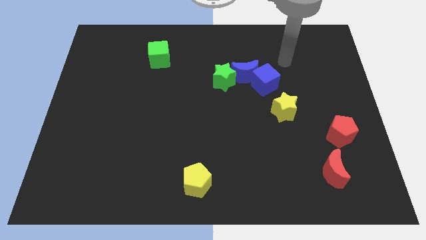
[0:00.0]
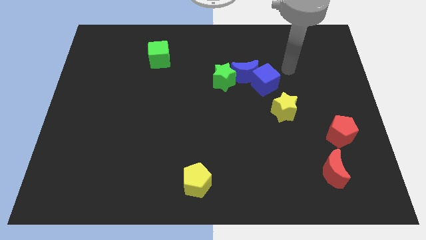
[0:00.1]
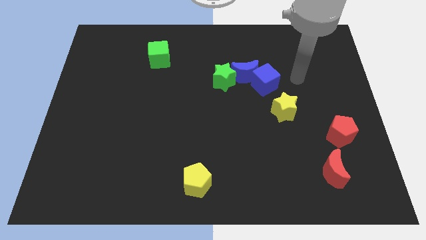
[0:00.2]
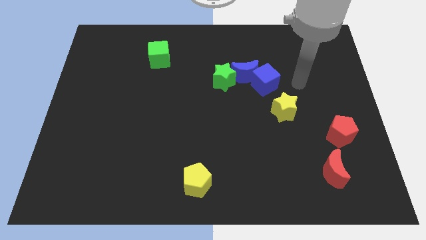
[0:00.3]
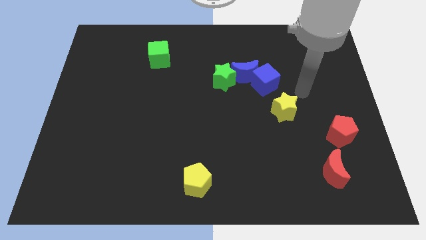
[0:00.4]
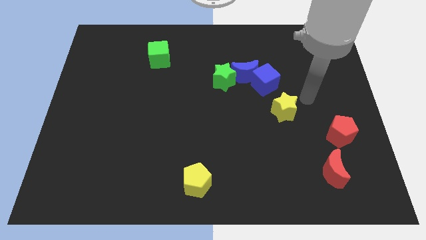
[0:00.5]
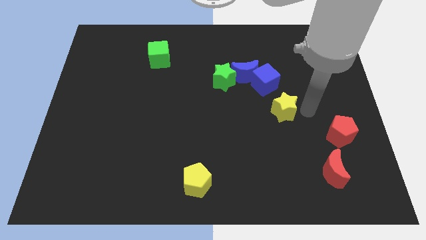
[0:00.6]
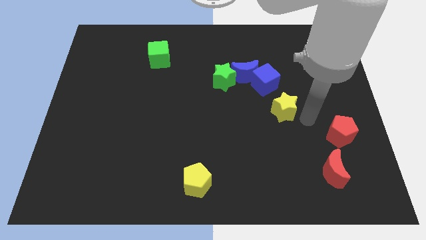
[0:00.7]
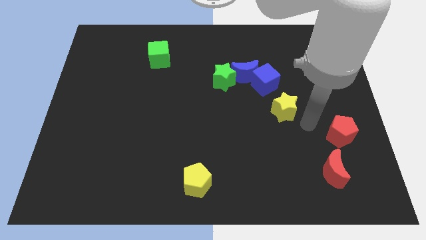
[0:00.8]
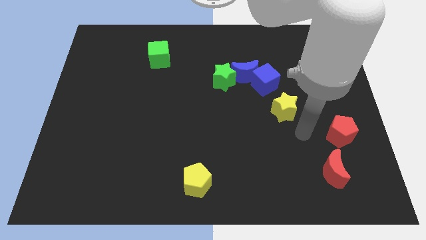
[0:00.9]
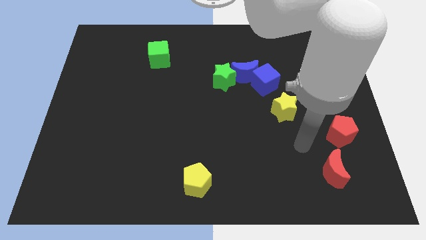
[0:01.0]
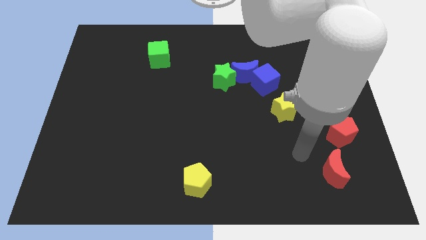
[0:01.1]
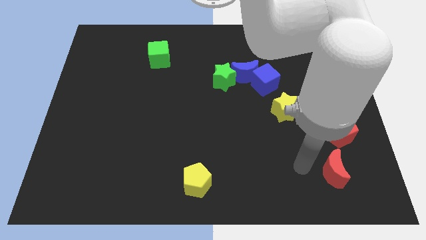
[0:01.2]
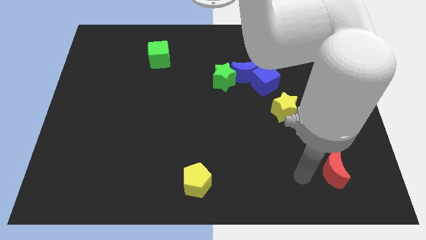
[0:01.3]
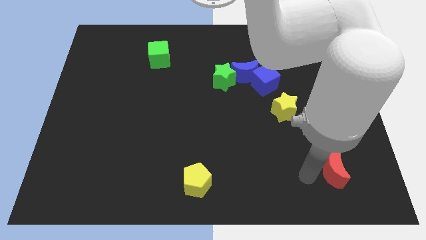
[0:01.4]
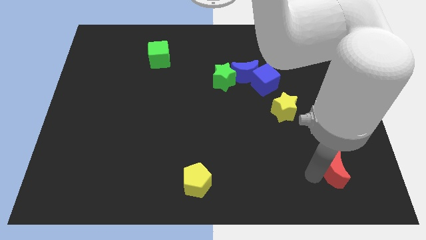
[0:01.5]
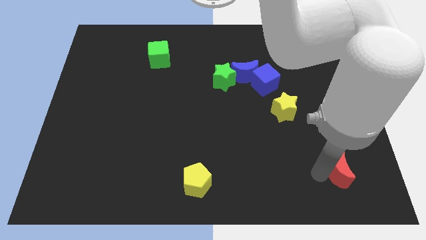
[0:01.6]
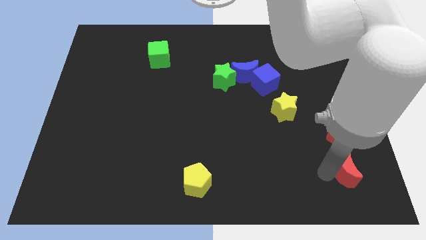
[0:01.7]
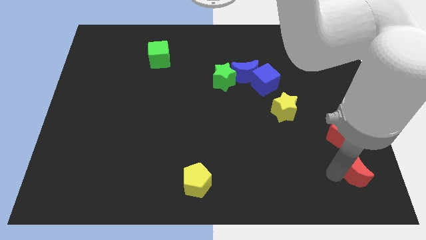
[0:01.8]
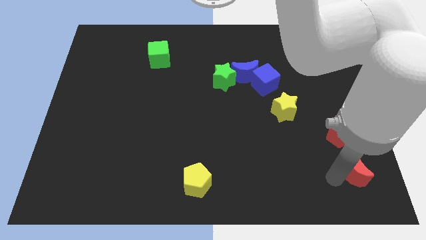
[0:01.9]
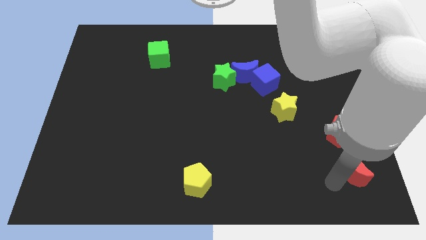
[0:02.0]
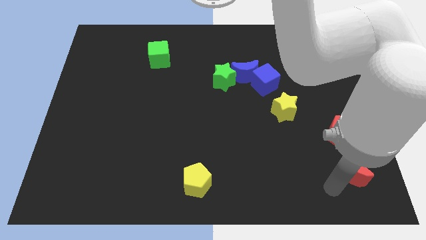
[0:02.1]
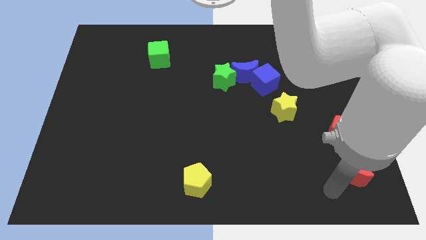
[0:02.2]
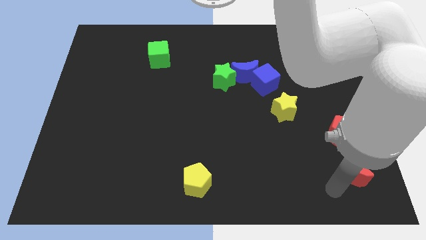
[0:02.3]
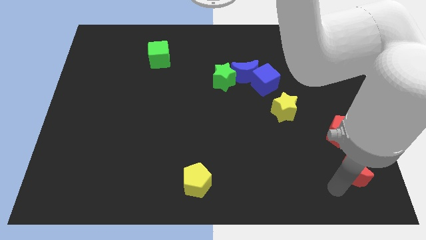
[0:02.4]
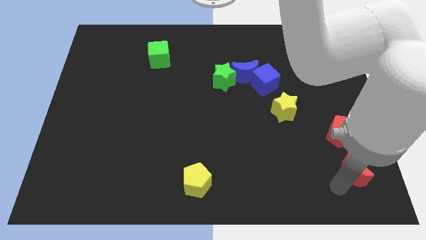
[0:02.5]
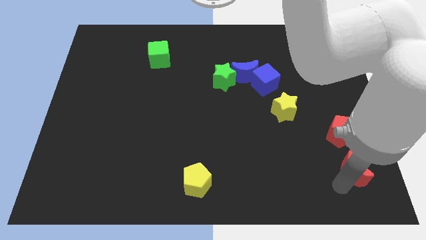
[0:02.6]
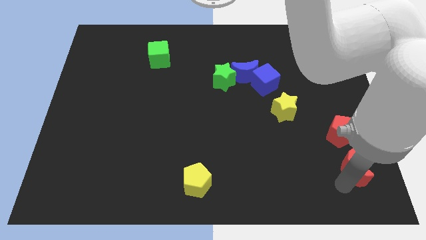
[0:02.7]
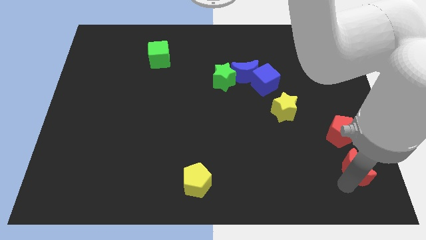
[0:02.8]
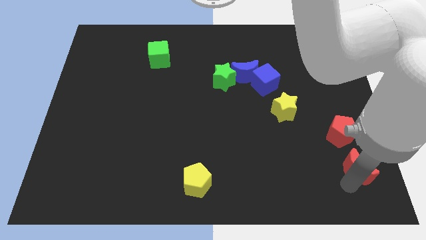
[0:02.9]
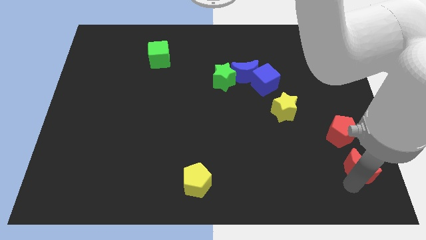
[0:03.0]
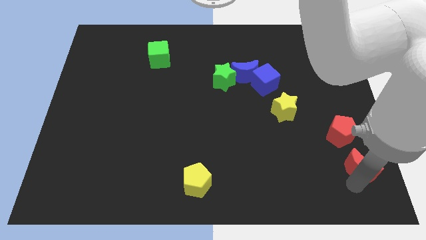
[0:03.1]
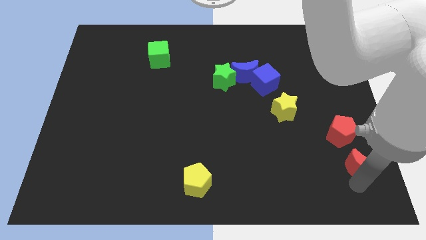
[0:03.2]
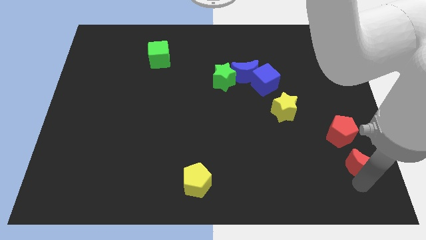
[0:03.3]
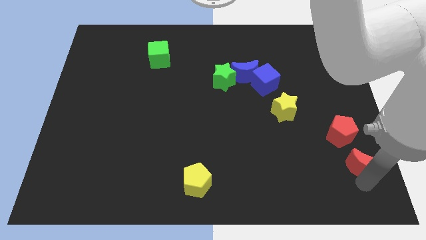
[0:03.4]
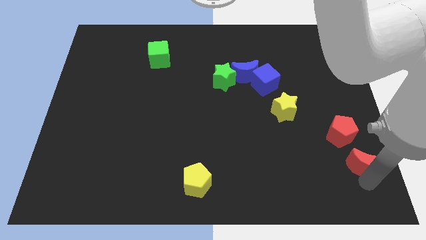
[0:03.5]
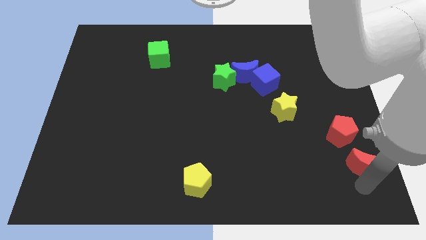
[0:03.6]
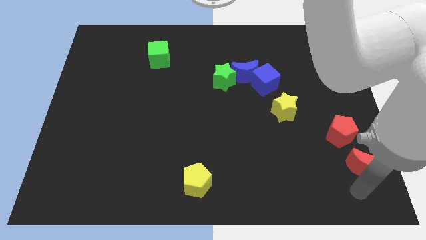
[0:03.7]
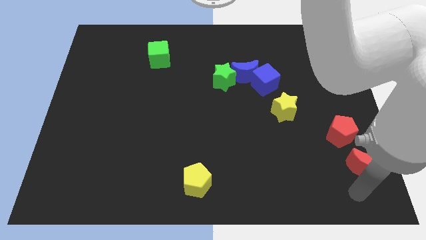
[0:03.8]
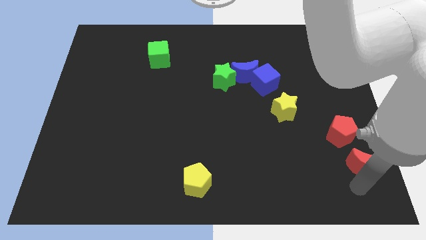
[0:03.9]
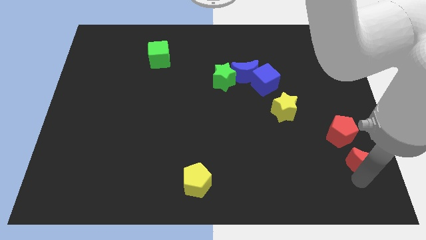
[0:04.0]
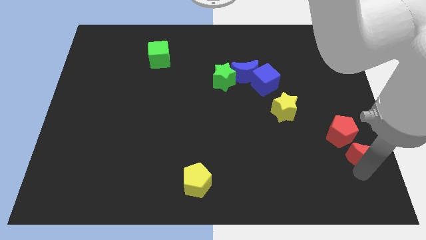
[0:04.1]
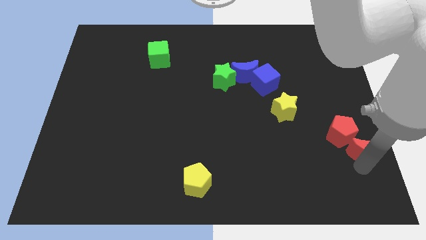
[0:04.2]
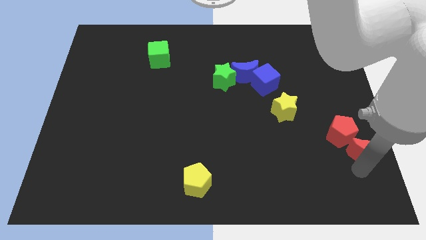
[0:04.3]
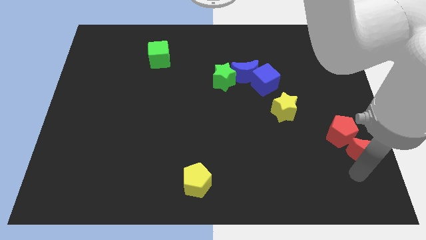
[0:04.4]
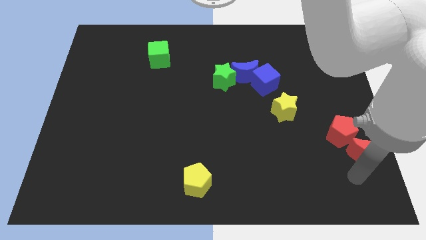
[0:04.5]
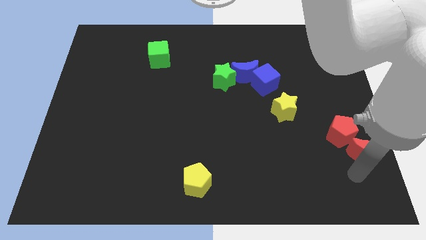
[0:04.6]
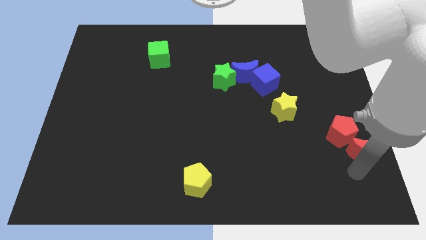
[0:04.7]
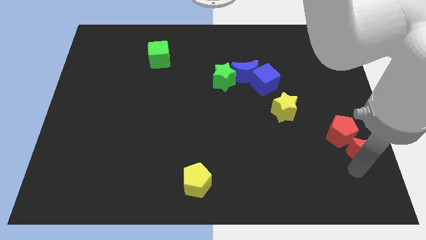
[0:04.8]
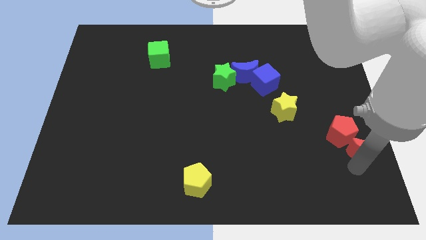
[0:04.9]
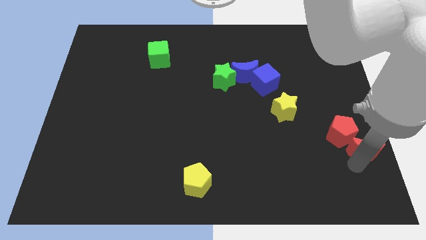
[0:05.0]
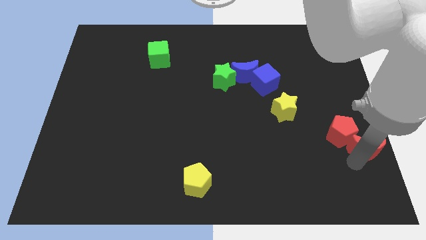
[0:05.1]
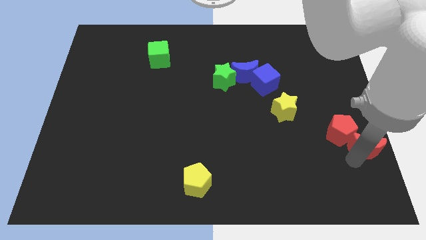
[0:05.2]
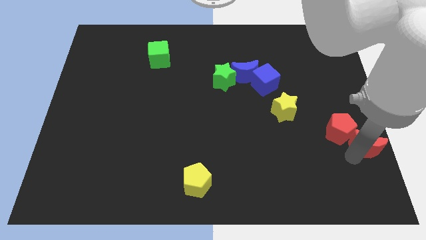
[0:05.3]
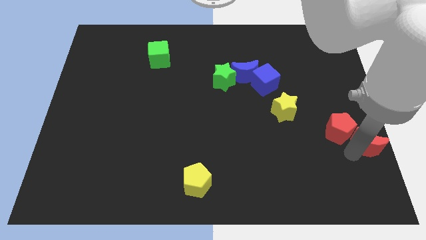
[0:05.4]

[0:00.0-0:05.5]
put the red moon to the center right
